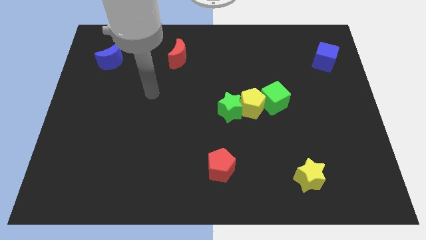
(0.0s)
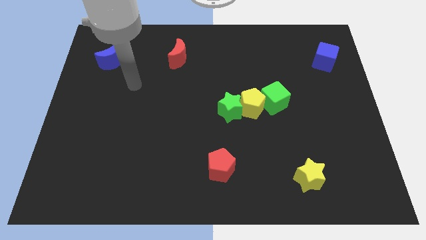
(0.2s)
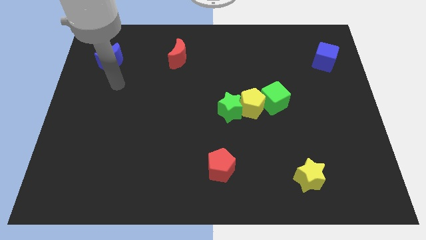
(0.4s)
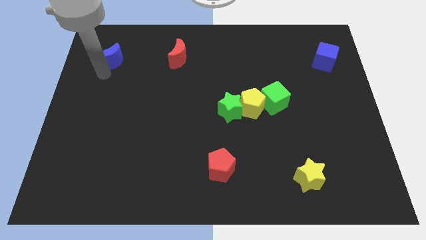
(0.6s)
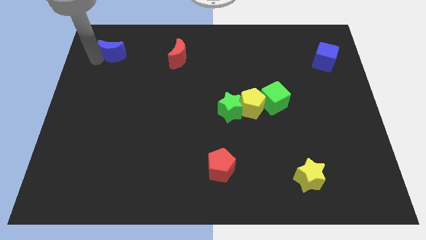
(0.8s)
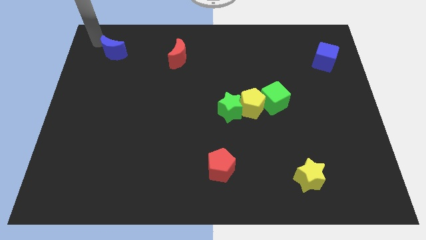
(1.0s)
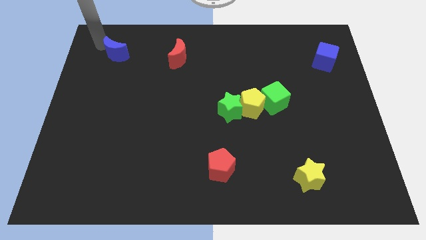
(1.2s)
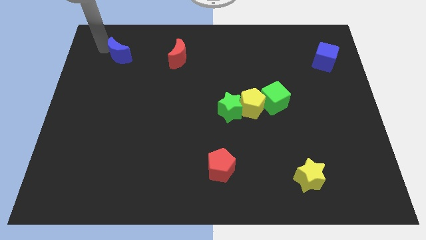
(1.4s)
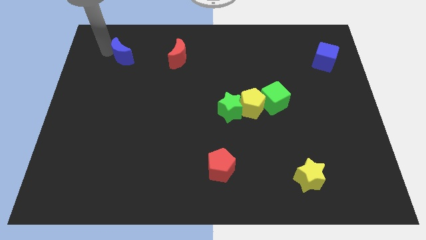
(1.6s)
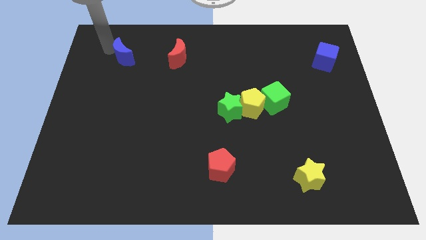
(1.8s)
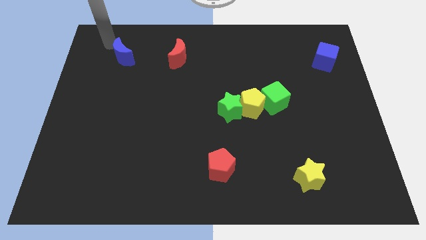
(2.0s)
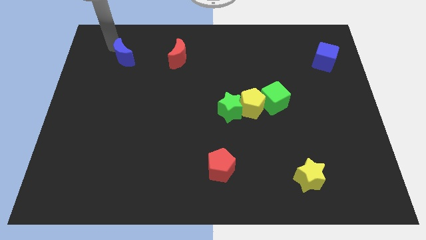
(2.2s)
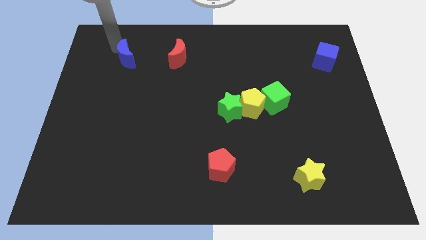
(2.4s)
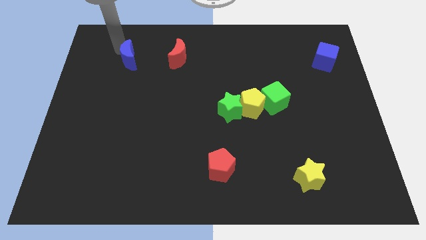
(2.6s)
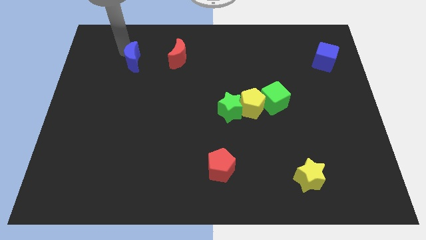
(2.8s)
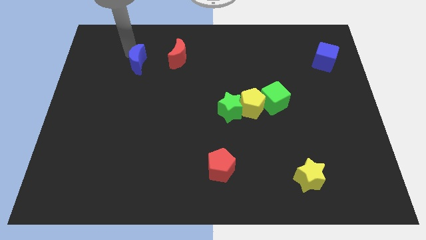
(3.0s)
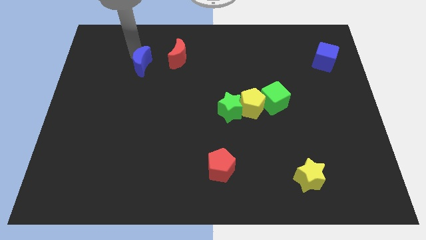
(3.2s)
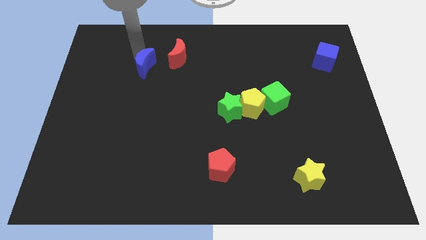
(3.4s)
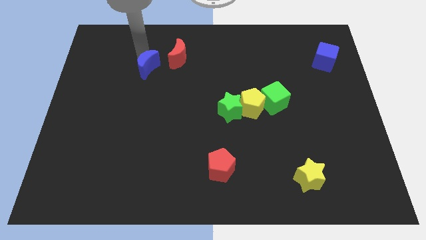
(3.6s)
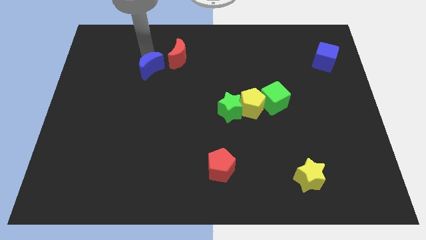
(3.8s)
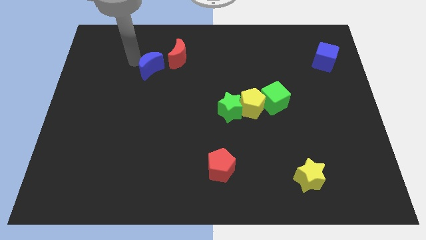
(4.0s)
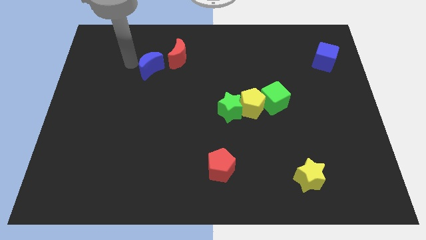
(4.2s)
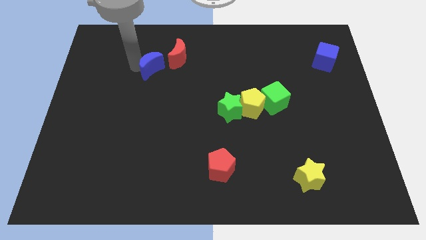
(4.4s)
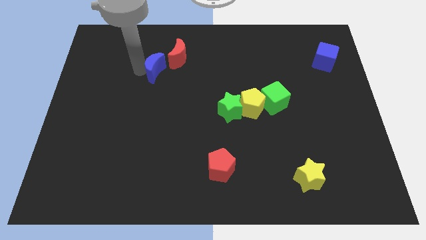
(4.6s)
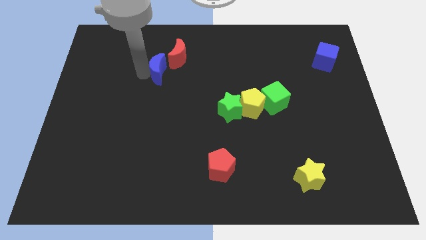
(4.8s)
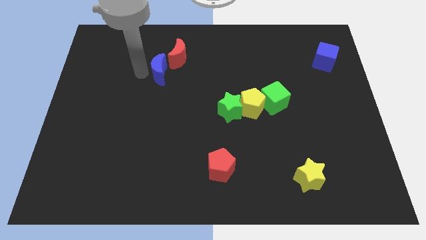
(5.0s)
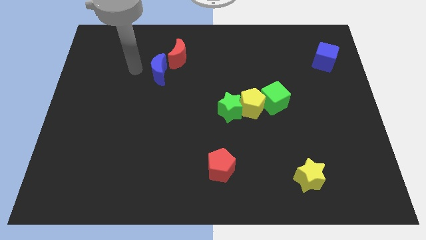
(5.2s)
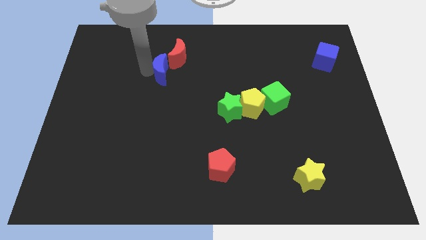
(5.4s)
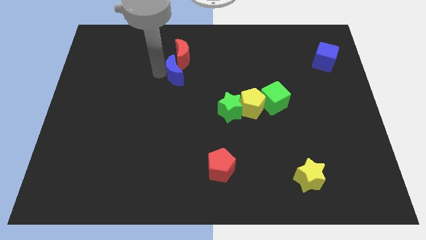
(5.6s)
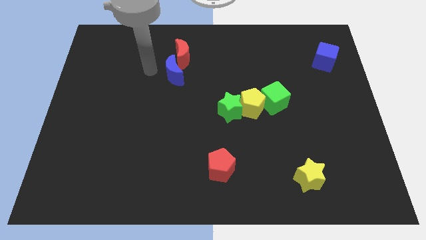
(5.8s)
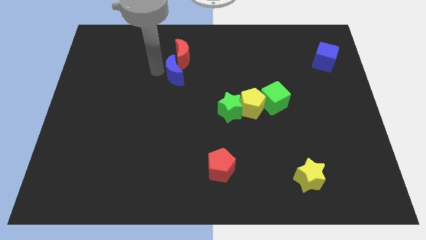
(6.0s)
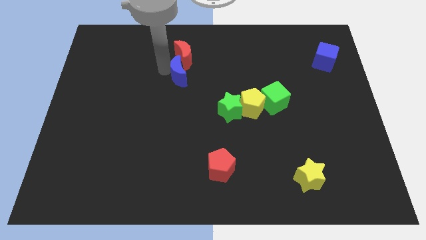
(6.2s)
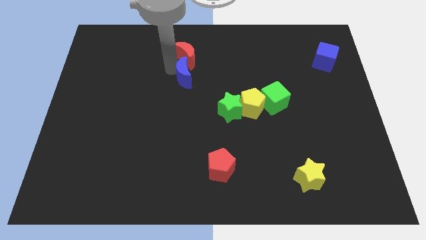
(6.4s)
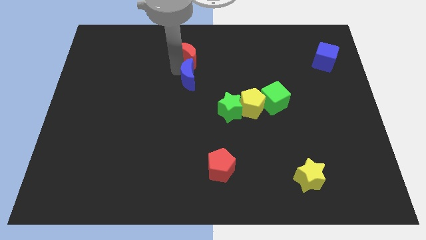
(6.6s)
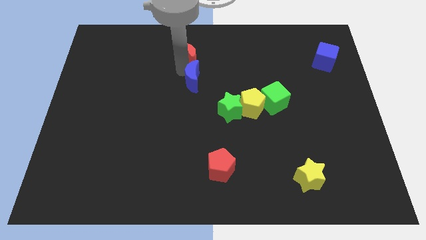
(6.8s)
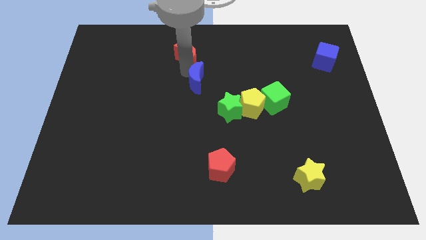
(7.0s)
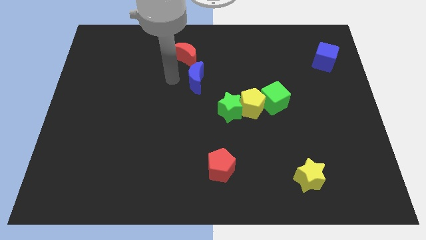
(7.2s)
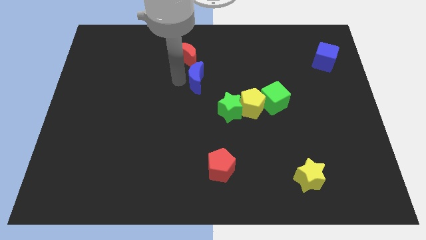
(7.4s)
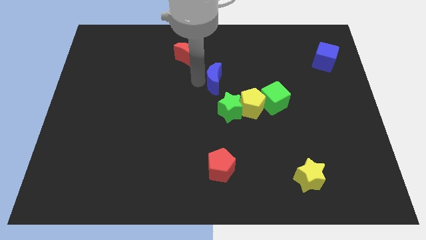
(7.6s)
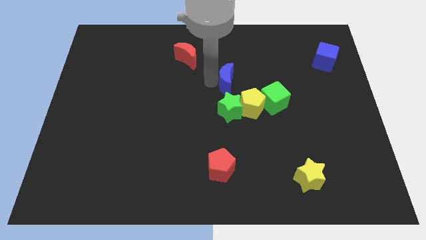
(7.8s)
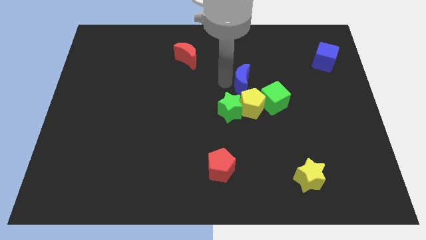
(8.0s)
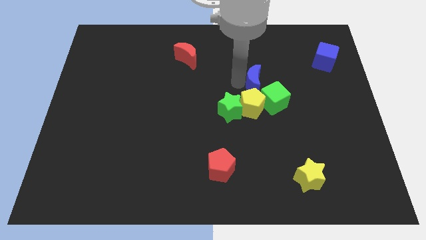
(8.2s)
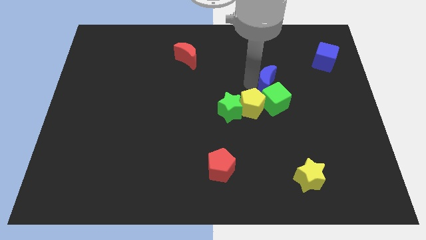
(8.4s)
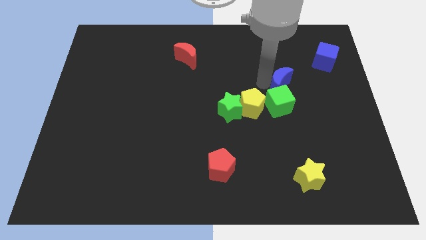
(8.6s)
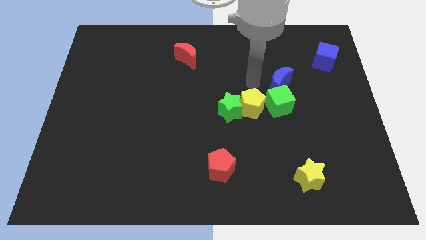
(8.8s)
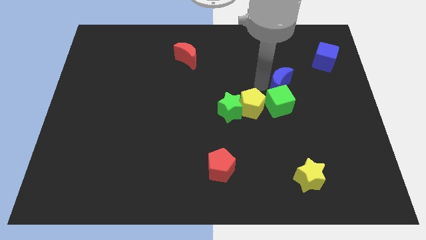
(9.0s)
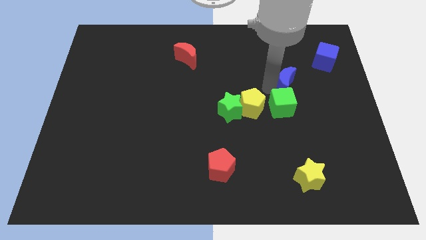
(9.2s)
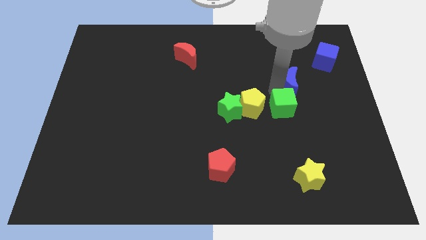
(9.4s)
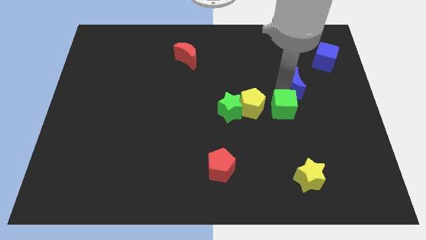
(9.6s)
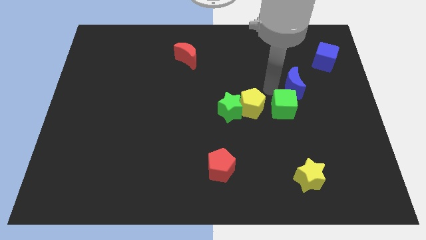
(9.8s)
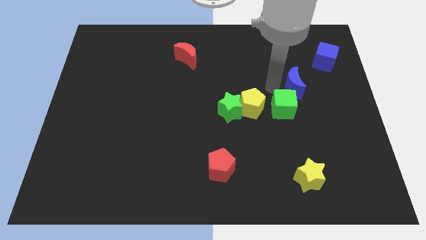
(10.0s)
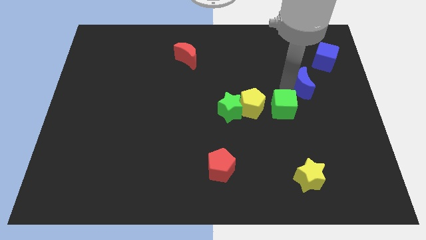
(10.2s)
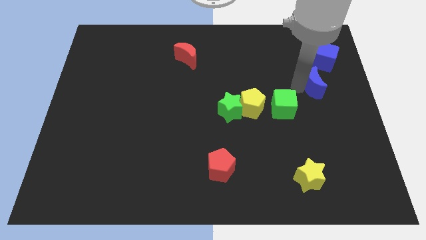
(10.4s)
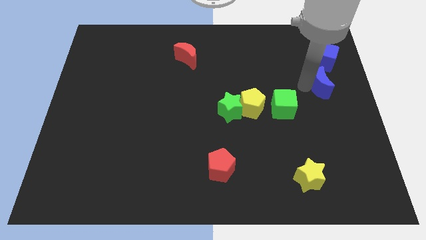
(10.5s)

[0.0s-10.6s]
put the blue moon to the center right

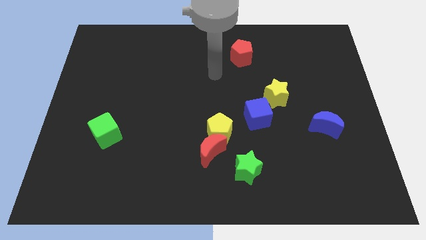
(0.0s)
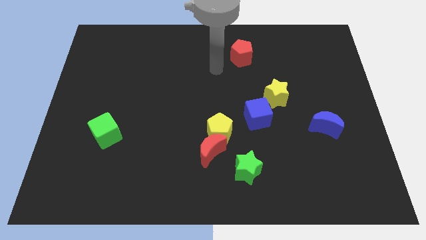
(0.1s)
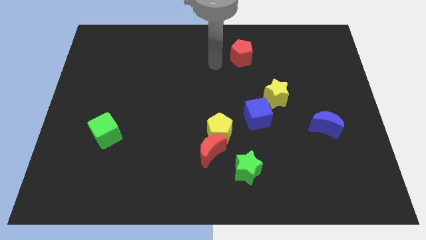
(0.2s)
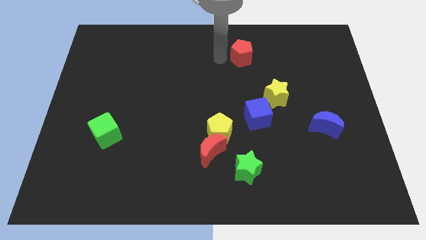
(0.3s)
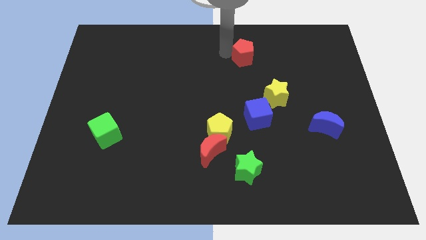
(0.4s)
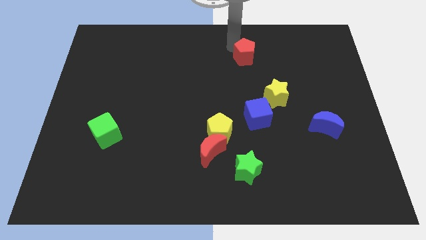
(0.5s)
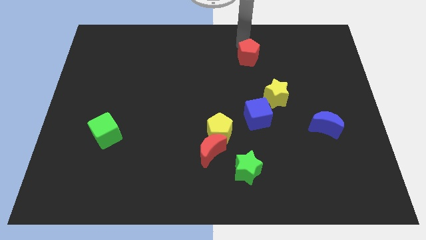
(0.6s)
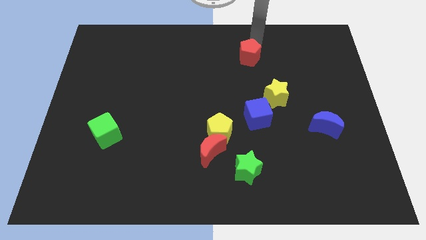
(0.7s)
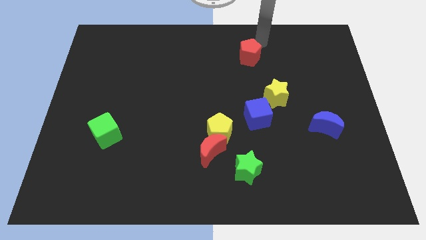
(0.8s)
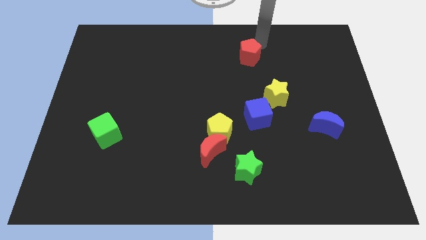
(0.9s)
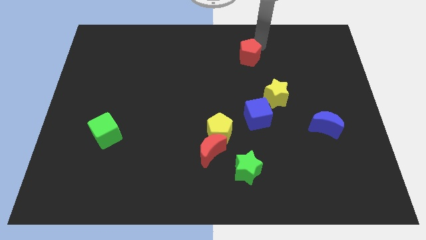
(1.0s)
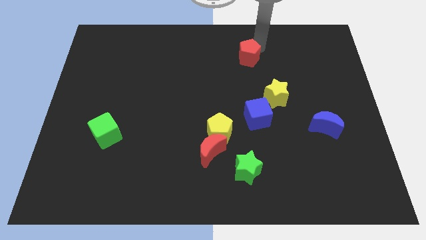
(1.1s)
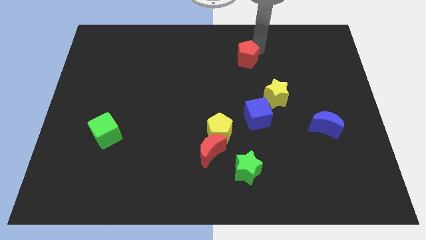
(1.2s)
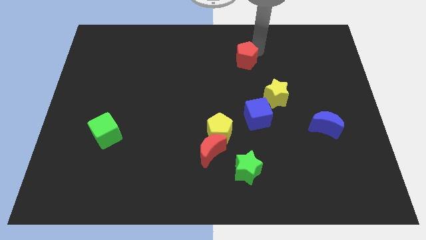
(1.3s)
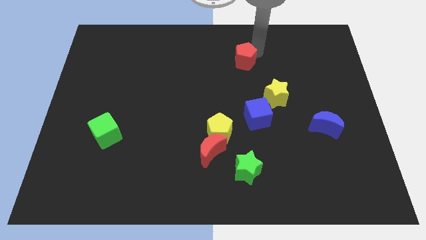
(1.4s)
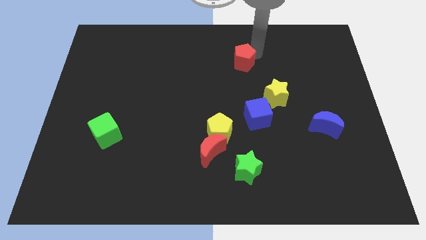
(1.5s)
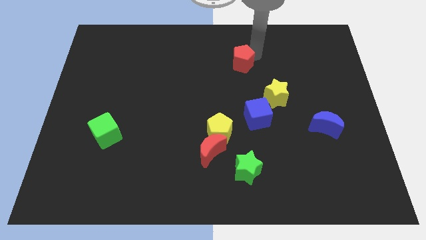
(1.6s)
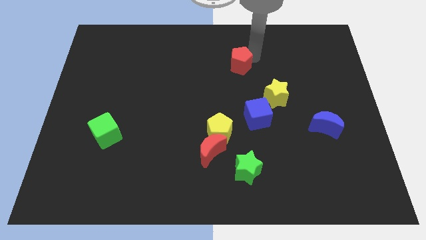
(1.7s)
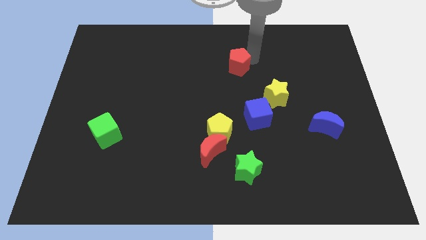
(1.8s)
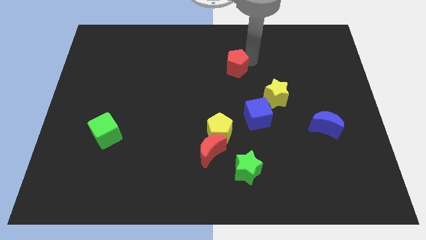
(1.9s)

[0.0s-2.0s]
put the red pentagon to the middle of the board

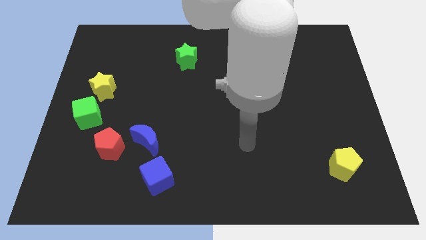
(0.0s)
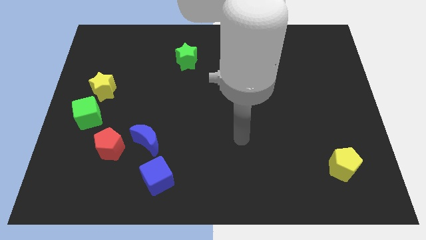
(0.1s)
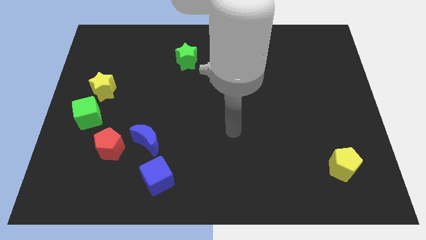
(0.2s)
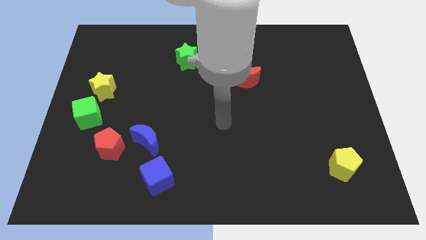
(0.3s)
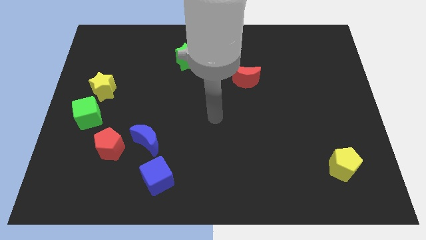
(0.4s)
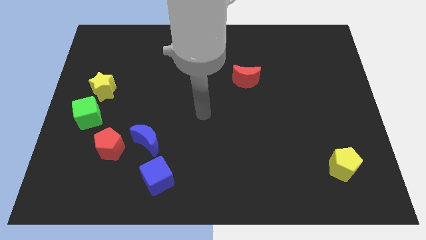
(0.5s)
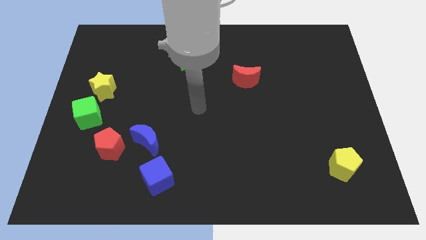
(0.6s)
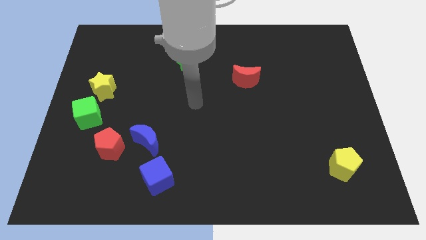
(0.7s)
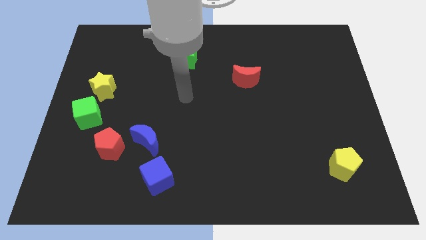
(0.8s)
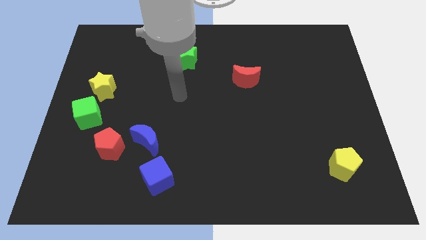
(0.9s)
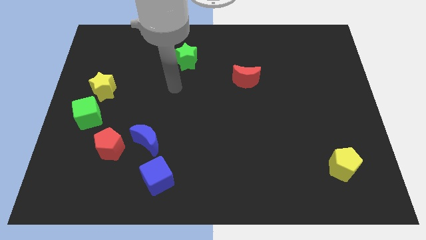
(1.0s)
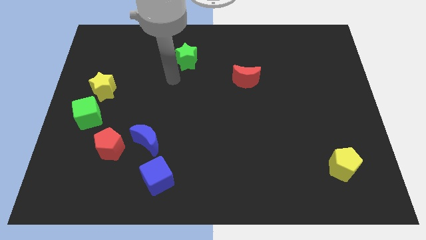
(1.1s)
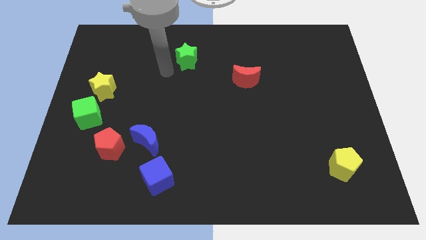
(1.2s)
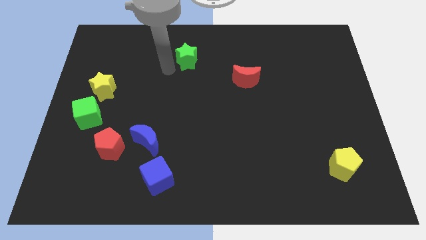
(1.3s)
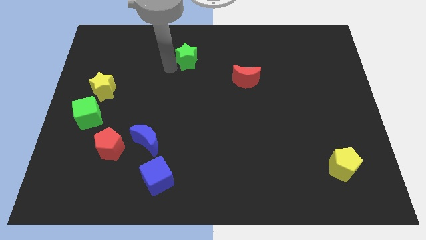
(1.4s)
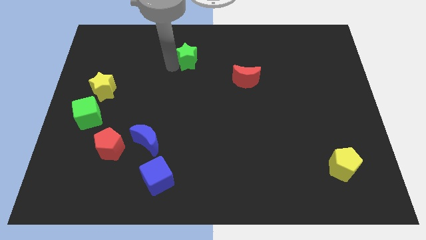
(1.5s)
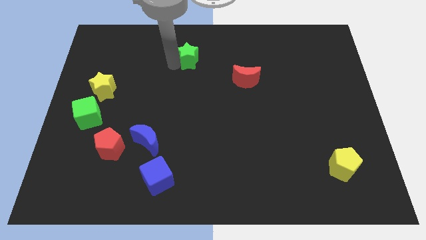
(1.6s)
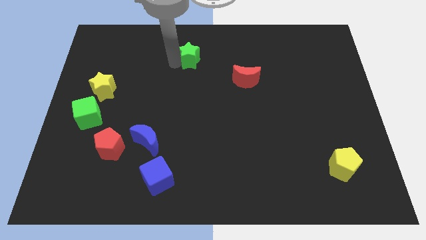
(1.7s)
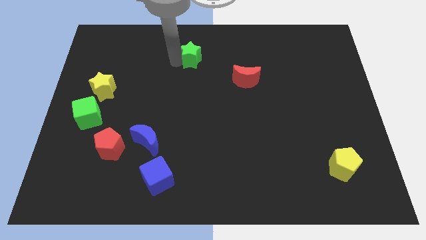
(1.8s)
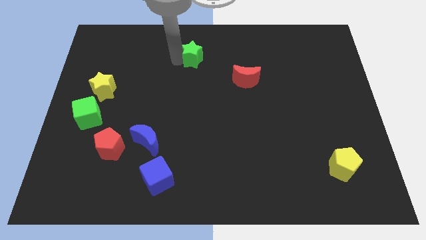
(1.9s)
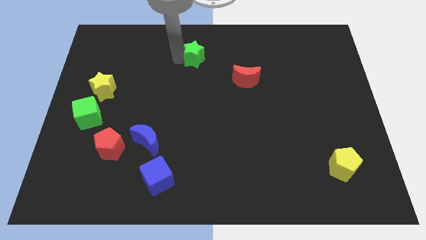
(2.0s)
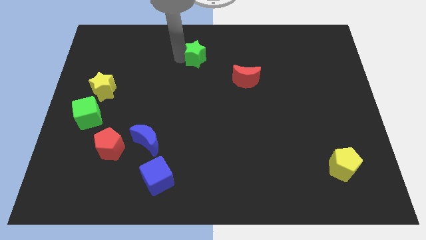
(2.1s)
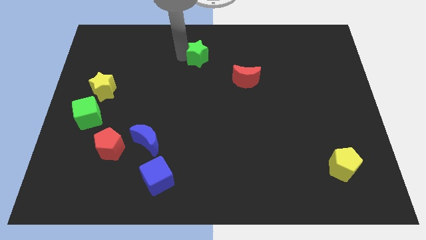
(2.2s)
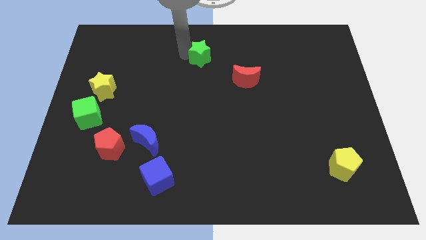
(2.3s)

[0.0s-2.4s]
put the green star to the top side
